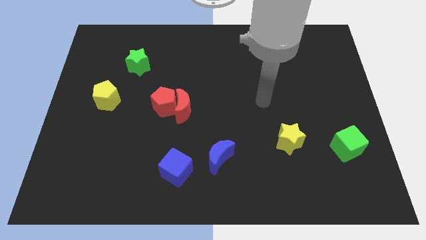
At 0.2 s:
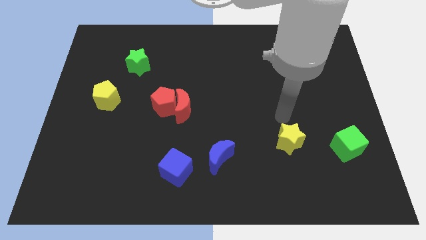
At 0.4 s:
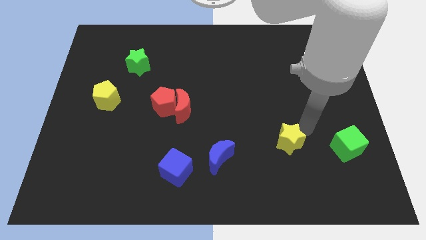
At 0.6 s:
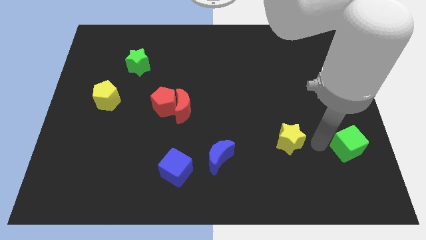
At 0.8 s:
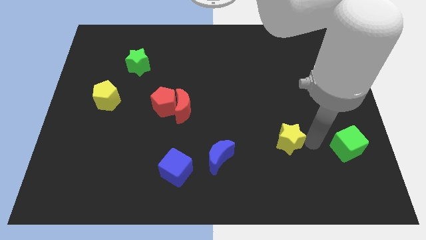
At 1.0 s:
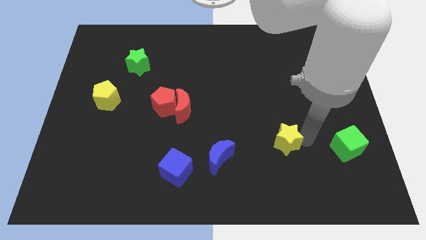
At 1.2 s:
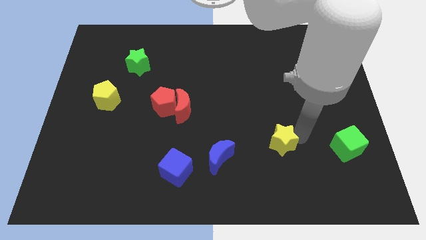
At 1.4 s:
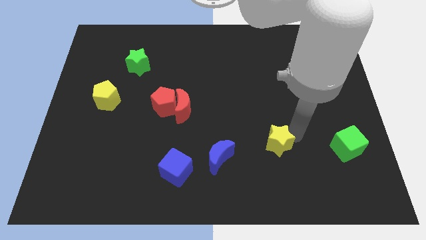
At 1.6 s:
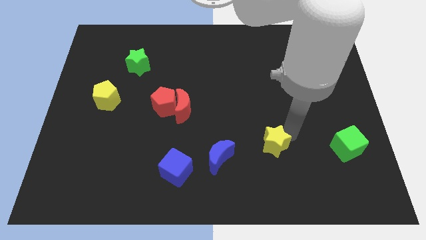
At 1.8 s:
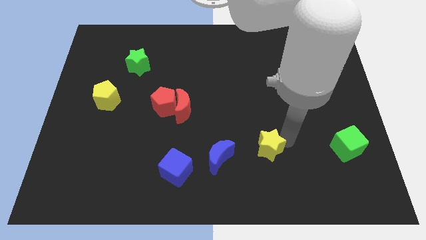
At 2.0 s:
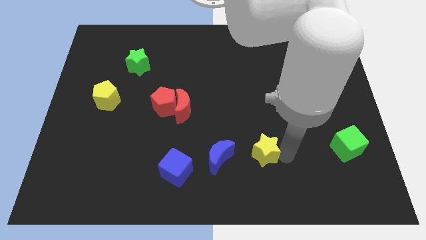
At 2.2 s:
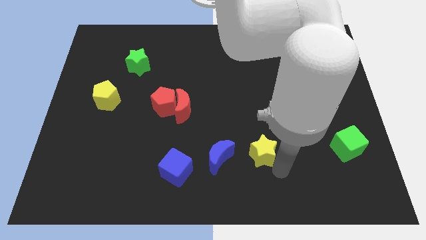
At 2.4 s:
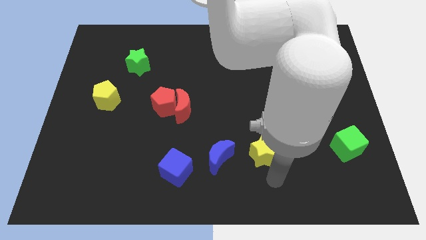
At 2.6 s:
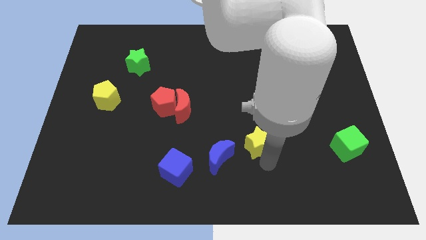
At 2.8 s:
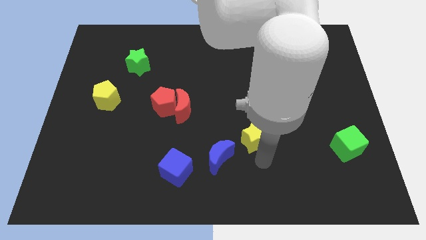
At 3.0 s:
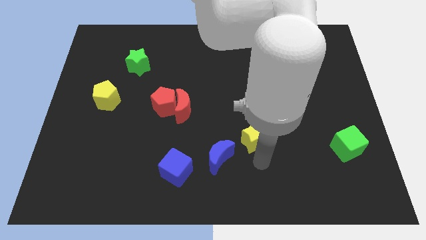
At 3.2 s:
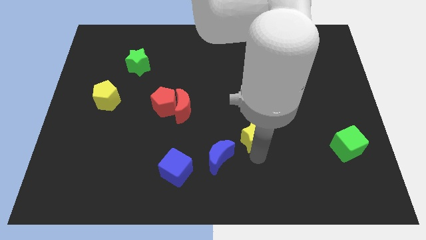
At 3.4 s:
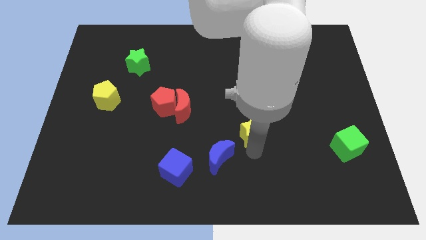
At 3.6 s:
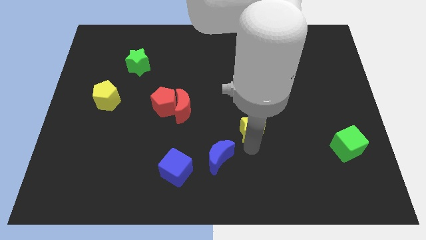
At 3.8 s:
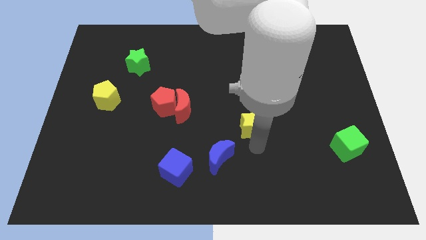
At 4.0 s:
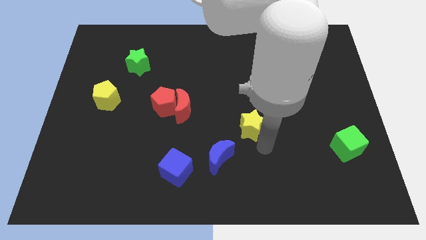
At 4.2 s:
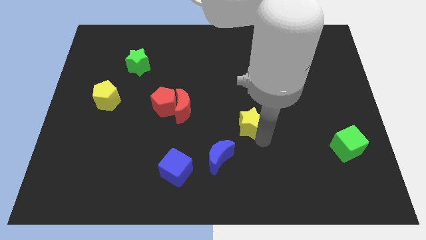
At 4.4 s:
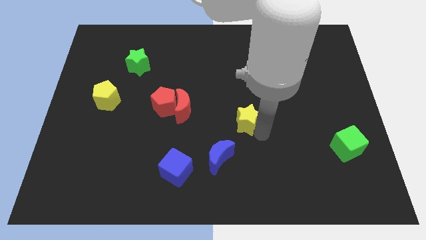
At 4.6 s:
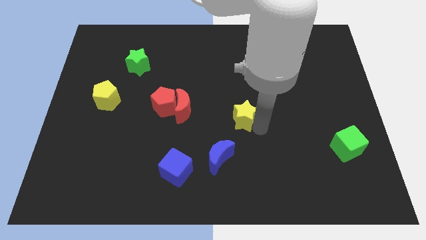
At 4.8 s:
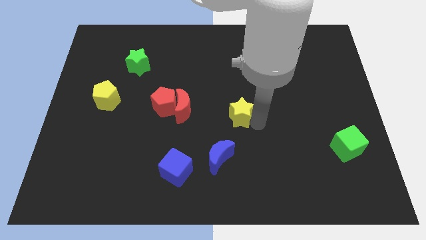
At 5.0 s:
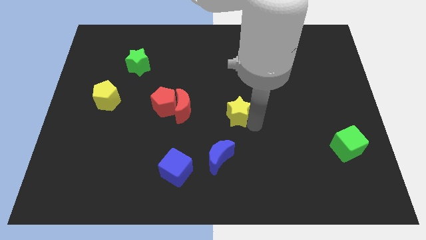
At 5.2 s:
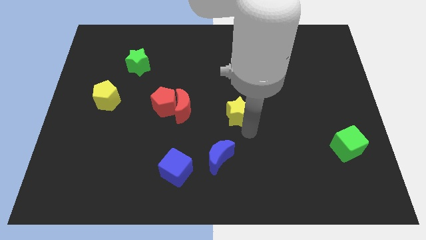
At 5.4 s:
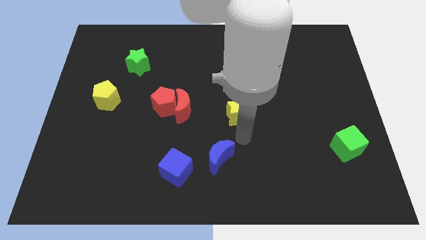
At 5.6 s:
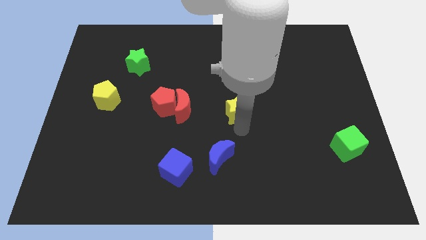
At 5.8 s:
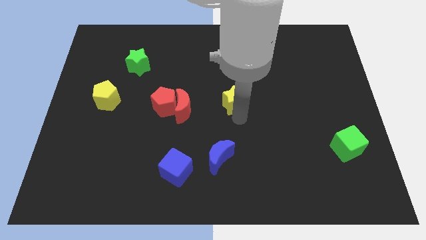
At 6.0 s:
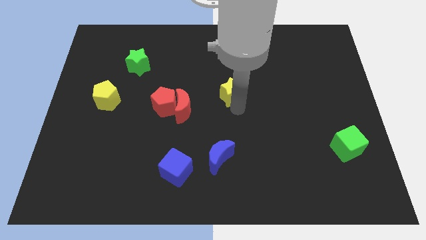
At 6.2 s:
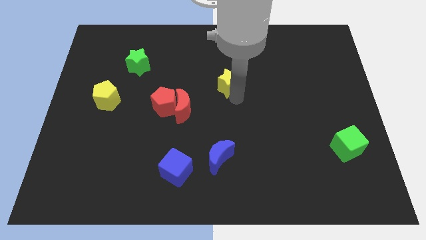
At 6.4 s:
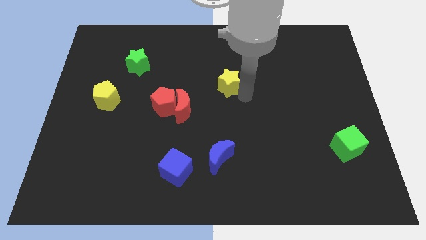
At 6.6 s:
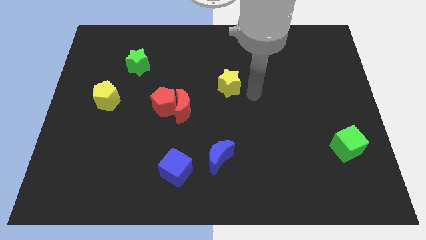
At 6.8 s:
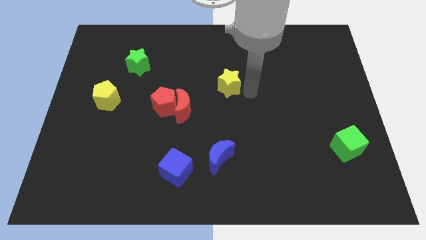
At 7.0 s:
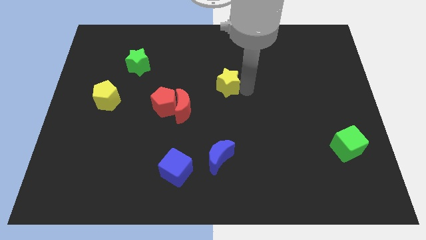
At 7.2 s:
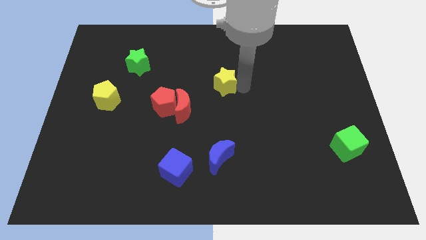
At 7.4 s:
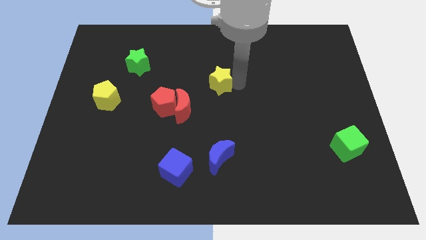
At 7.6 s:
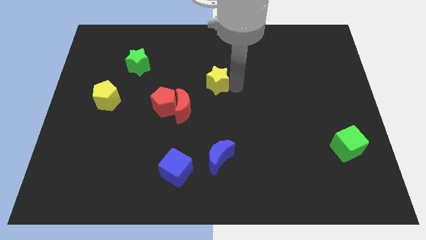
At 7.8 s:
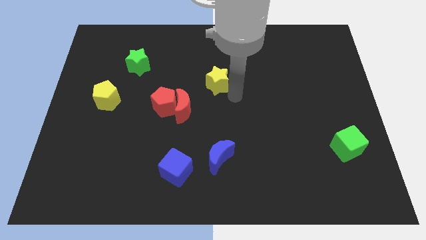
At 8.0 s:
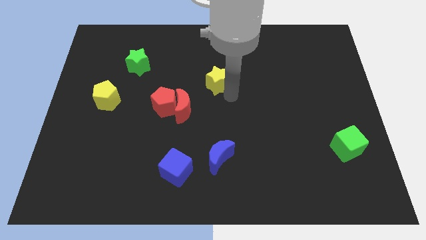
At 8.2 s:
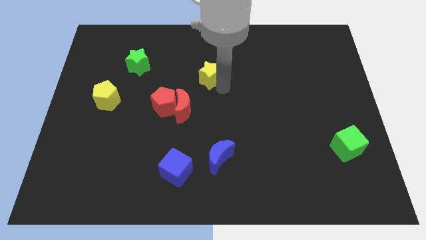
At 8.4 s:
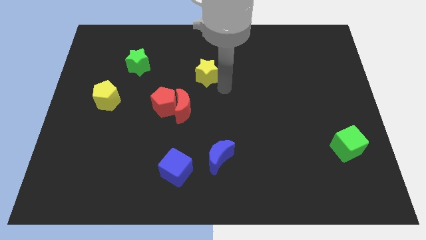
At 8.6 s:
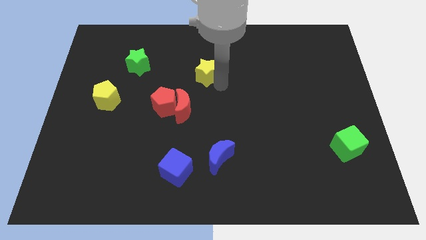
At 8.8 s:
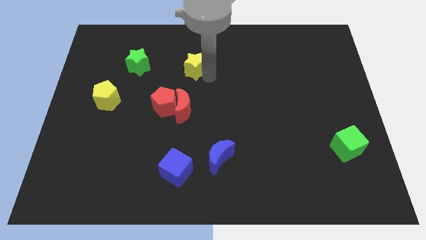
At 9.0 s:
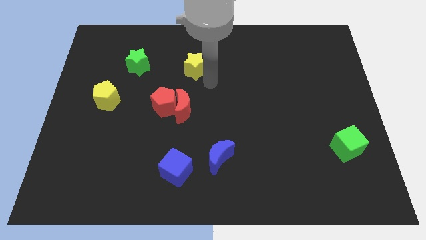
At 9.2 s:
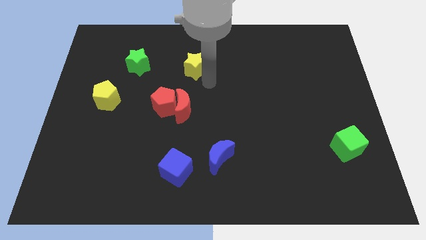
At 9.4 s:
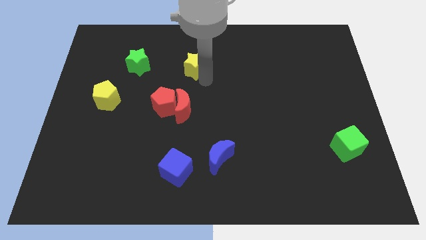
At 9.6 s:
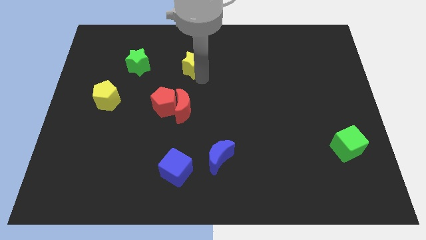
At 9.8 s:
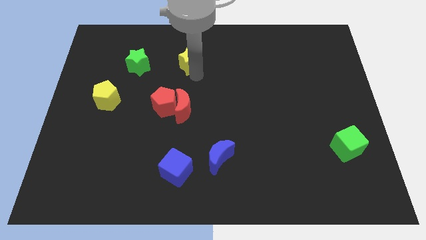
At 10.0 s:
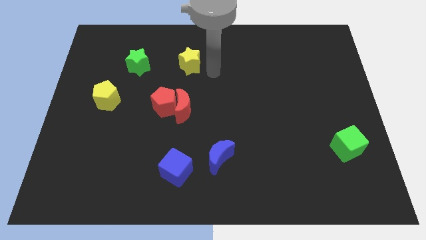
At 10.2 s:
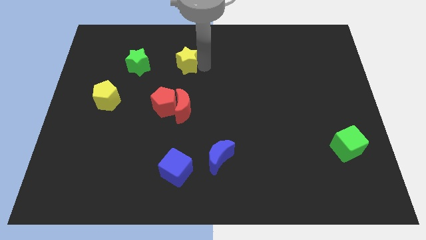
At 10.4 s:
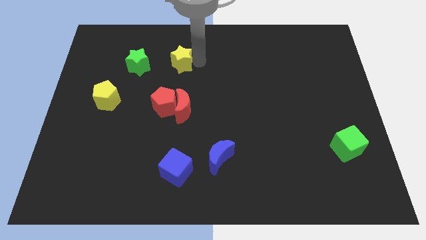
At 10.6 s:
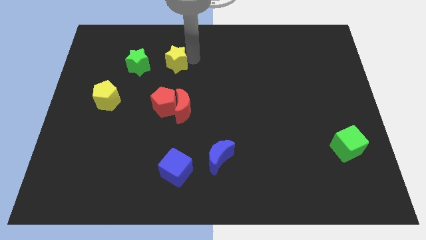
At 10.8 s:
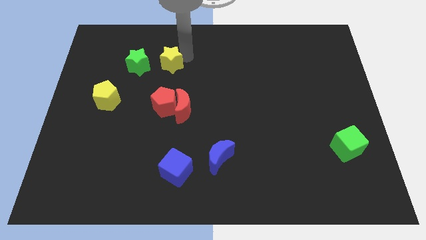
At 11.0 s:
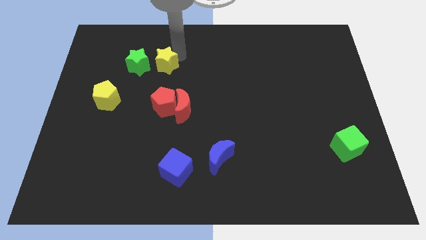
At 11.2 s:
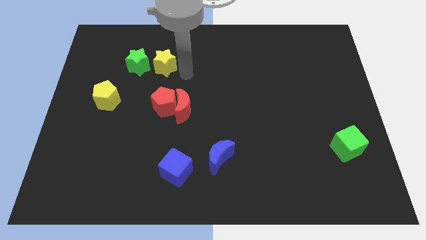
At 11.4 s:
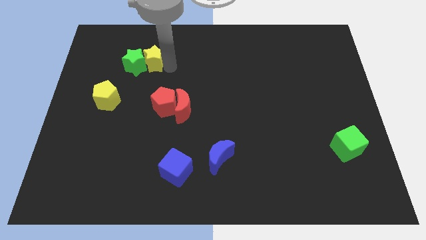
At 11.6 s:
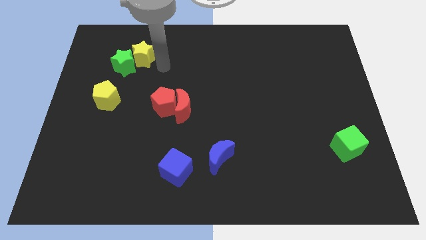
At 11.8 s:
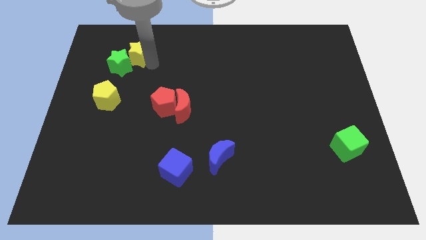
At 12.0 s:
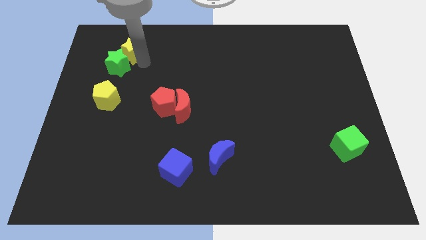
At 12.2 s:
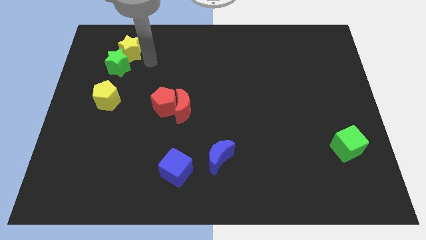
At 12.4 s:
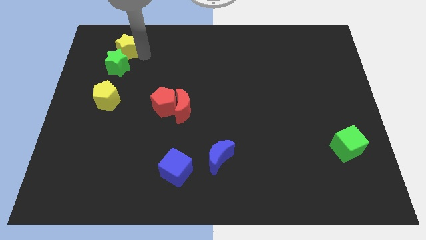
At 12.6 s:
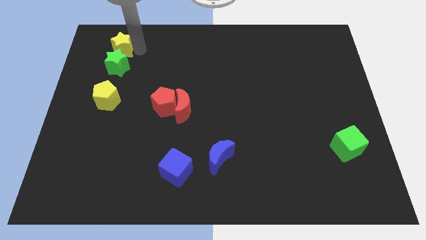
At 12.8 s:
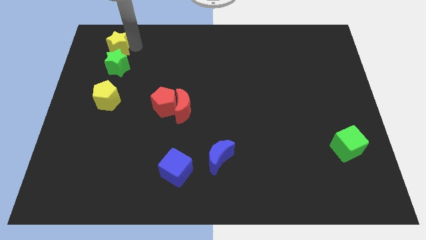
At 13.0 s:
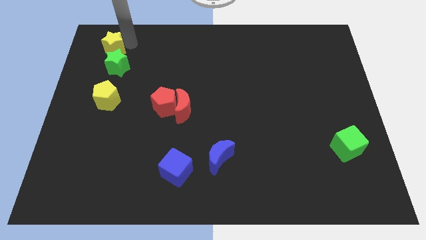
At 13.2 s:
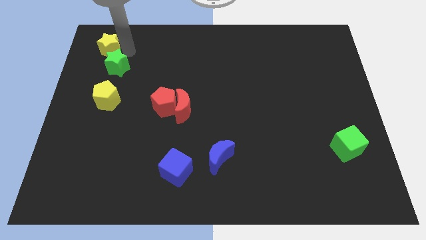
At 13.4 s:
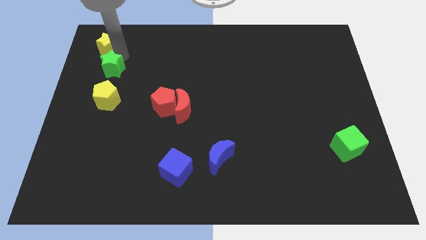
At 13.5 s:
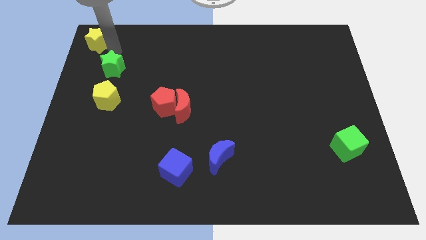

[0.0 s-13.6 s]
move the yellow star to the top left

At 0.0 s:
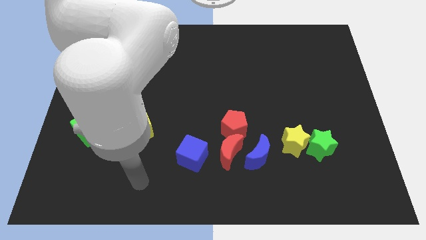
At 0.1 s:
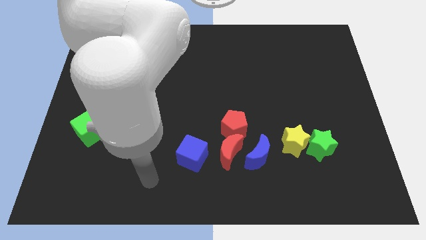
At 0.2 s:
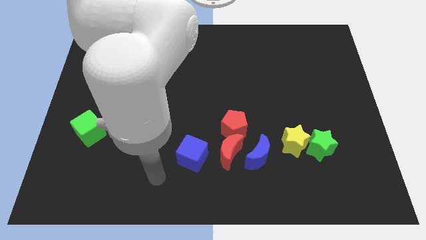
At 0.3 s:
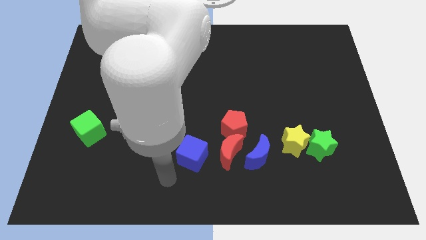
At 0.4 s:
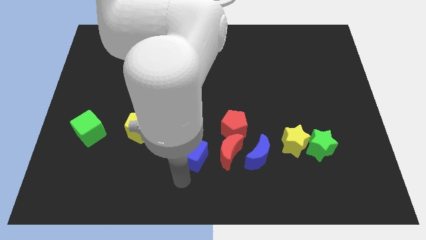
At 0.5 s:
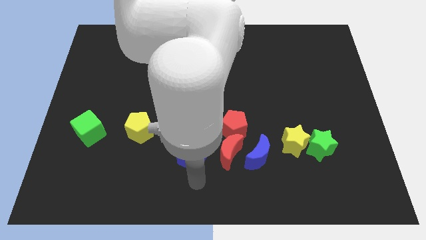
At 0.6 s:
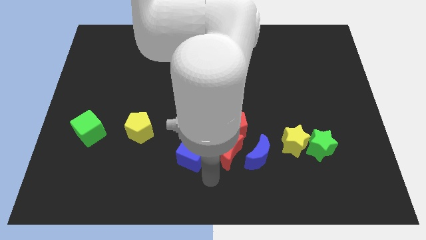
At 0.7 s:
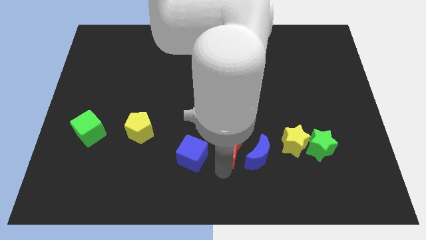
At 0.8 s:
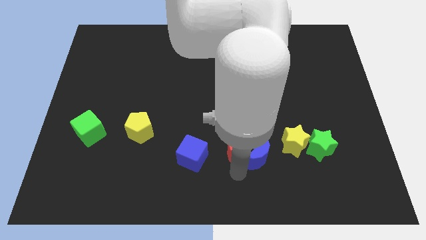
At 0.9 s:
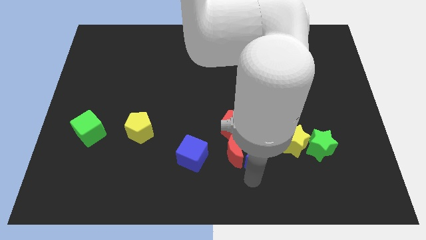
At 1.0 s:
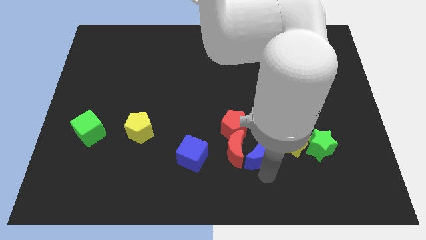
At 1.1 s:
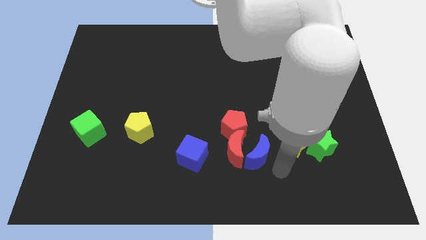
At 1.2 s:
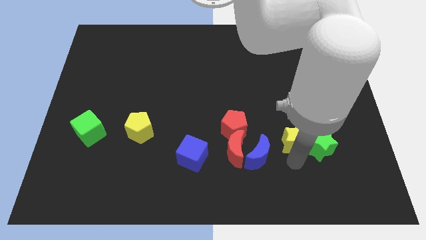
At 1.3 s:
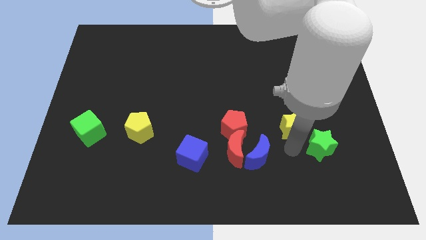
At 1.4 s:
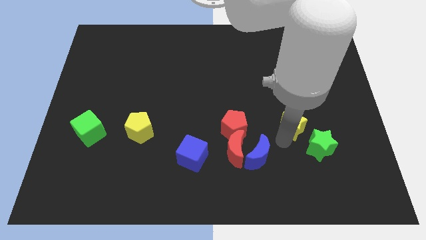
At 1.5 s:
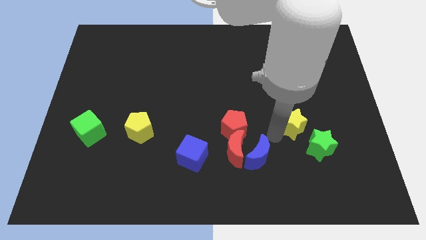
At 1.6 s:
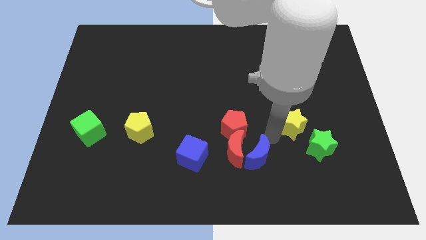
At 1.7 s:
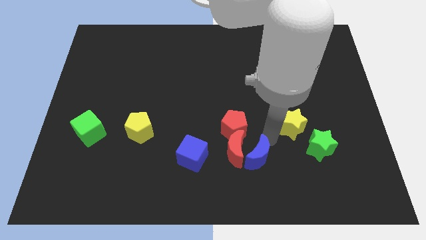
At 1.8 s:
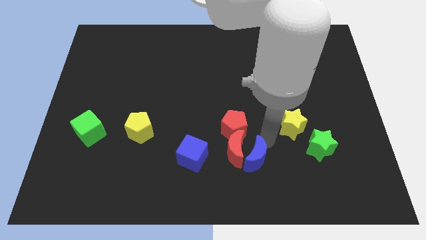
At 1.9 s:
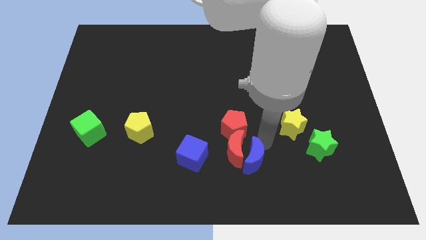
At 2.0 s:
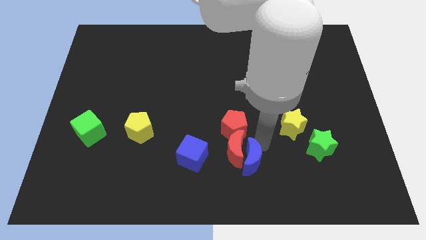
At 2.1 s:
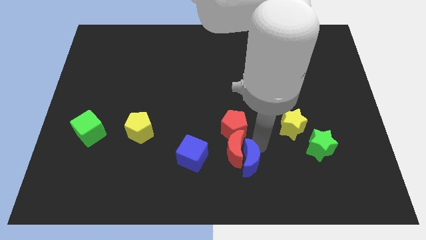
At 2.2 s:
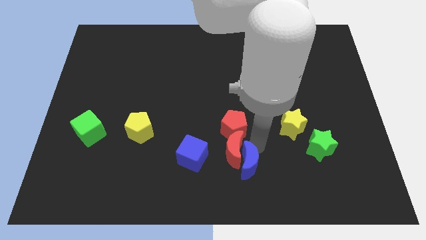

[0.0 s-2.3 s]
push the blue moon to the bottom
